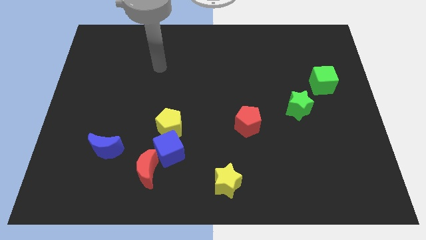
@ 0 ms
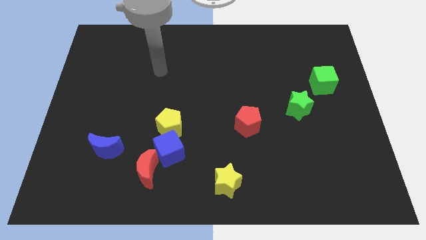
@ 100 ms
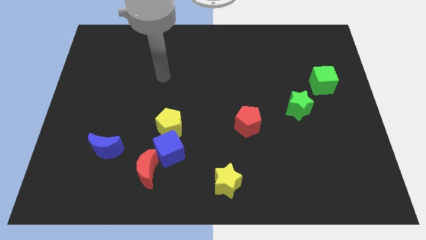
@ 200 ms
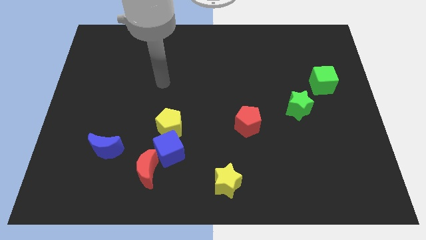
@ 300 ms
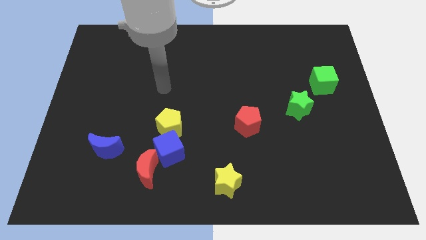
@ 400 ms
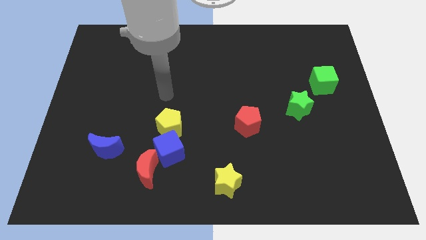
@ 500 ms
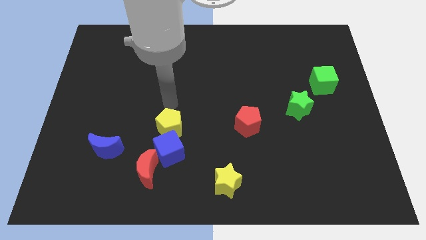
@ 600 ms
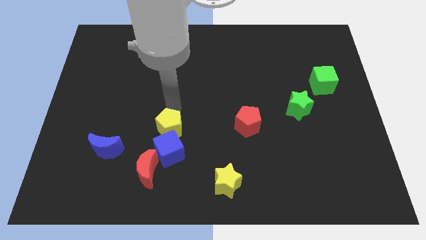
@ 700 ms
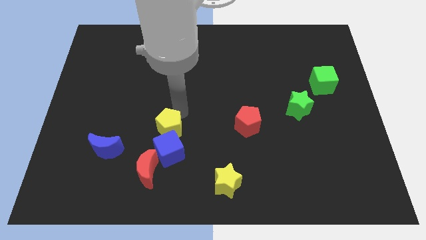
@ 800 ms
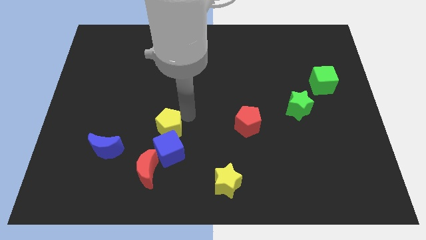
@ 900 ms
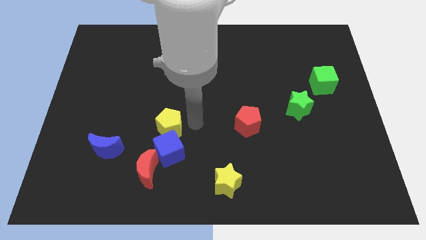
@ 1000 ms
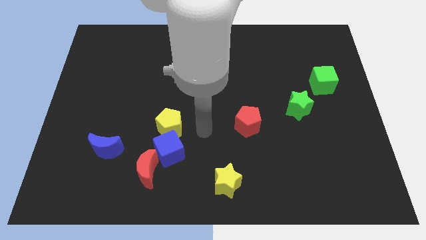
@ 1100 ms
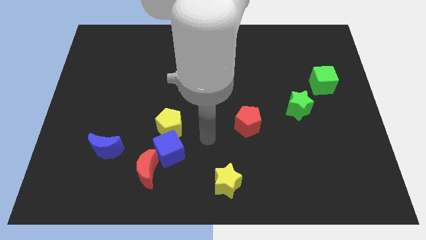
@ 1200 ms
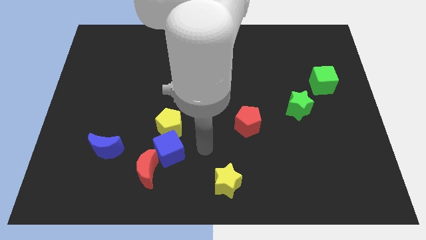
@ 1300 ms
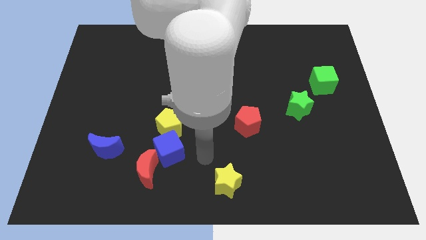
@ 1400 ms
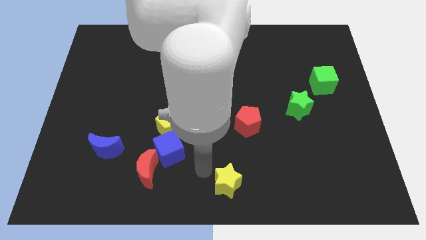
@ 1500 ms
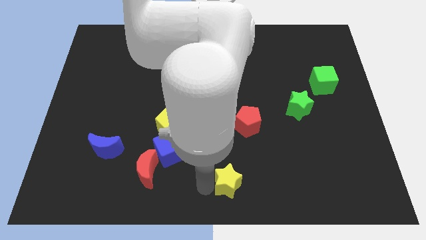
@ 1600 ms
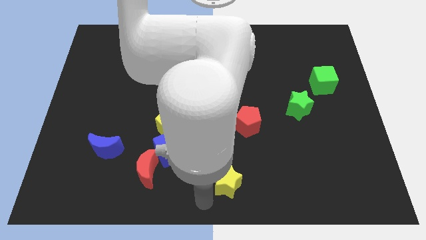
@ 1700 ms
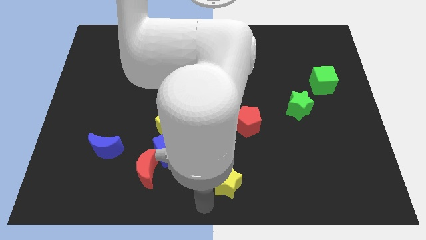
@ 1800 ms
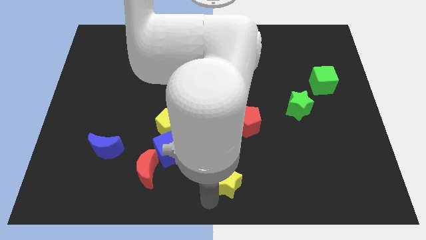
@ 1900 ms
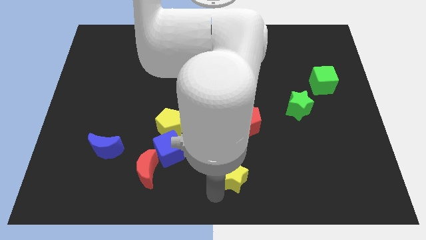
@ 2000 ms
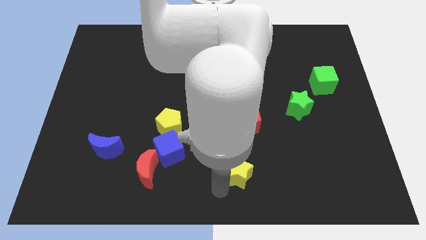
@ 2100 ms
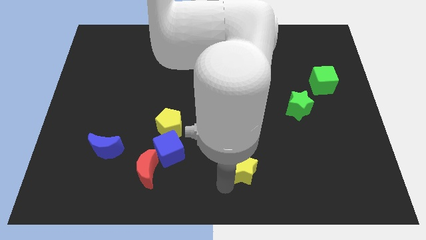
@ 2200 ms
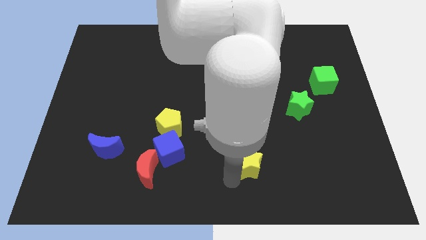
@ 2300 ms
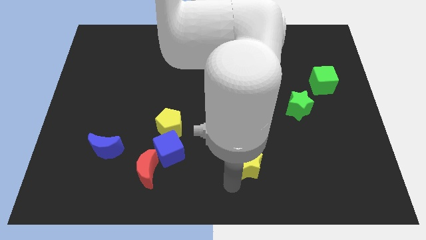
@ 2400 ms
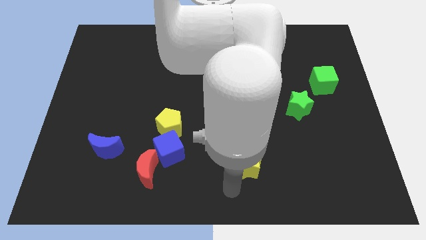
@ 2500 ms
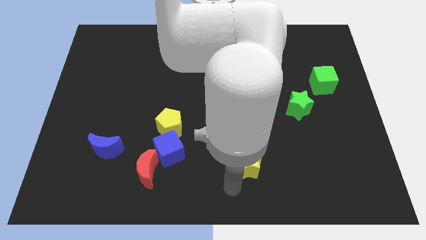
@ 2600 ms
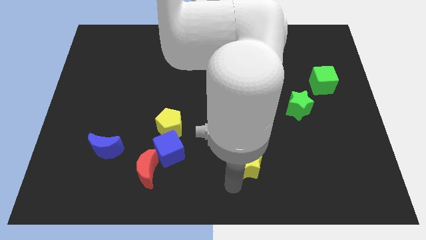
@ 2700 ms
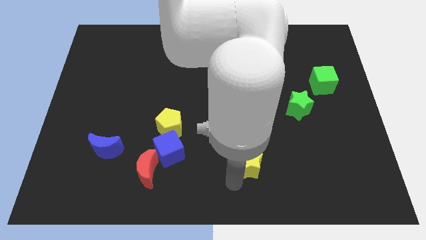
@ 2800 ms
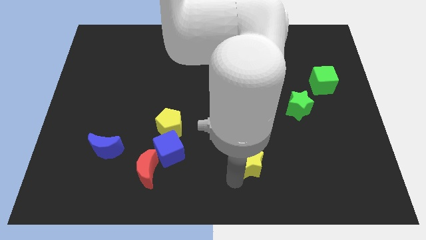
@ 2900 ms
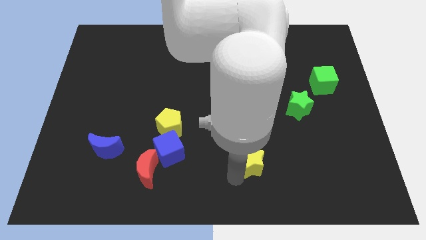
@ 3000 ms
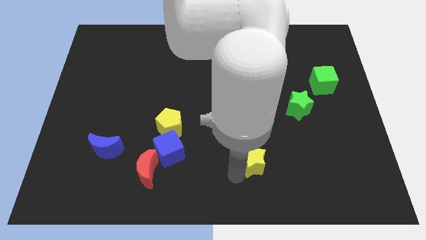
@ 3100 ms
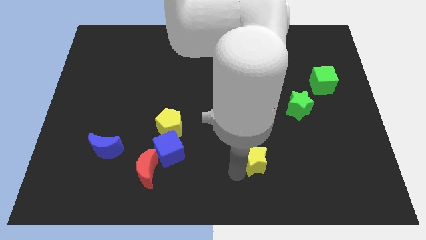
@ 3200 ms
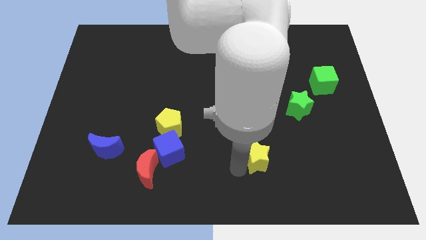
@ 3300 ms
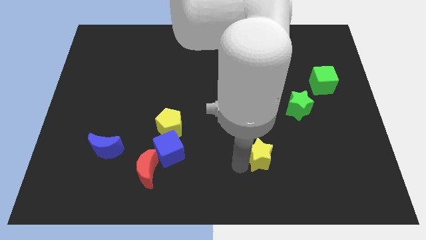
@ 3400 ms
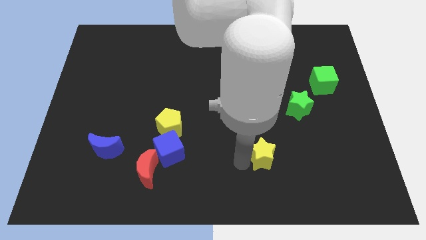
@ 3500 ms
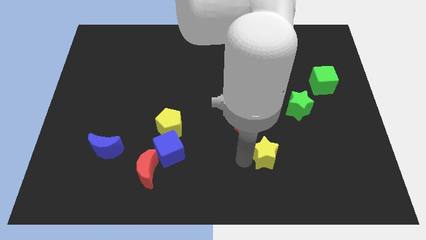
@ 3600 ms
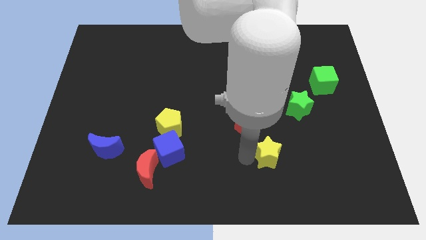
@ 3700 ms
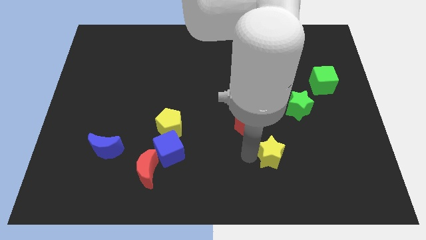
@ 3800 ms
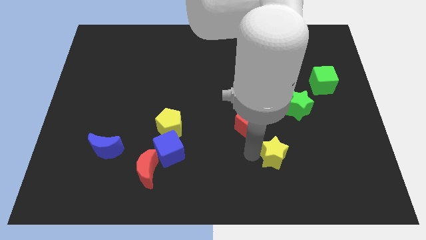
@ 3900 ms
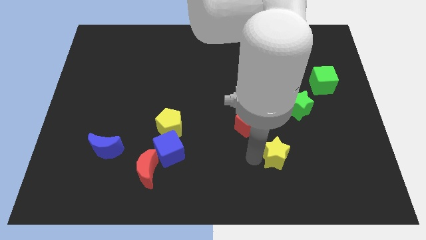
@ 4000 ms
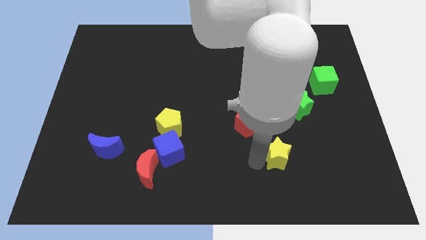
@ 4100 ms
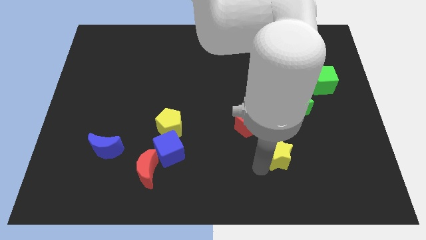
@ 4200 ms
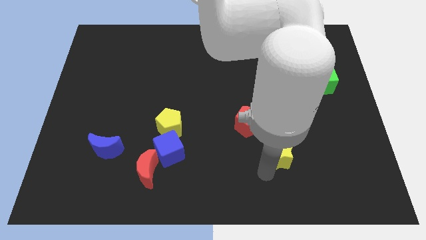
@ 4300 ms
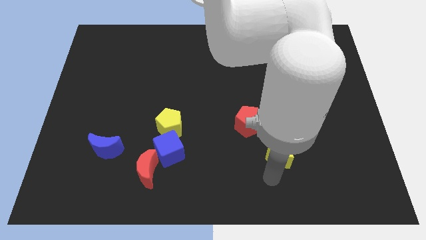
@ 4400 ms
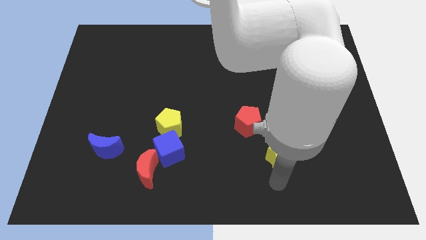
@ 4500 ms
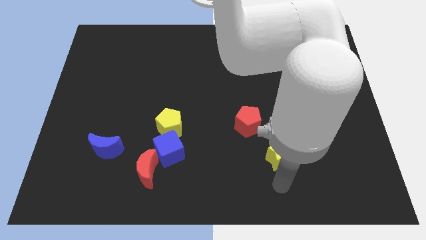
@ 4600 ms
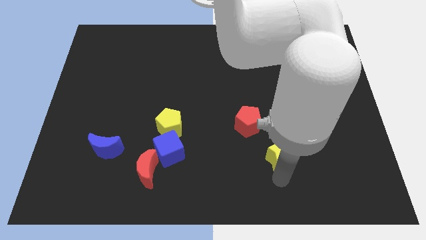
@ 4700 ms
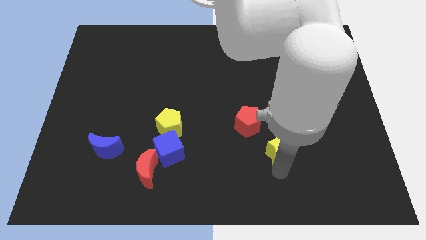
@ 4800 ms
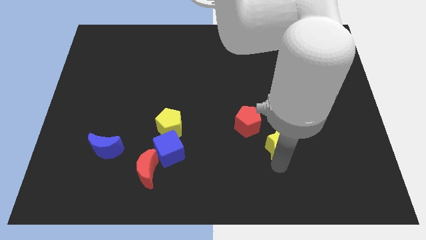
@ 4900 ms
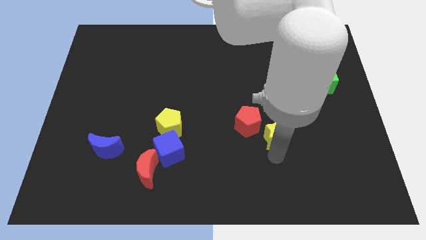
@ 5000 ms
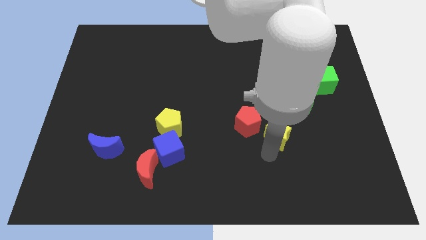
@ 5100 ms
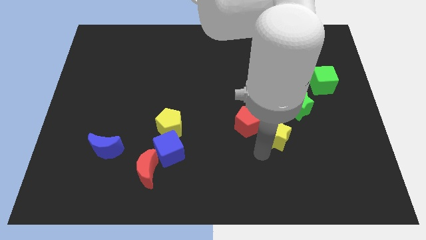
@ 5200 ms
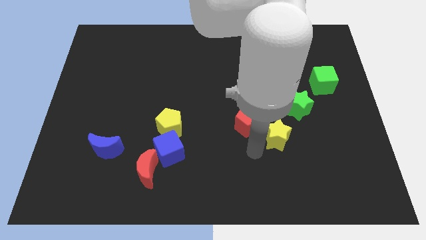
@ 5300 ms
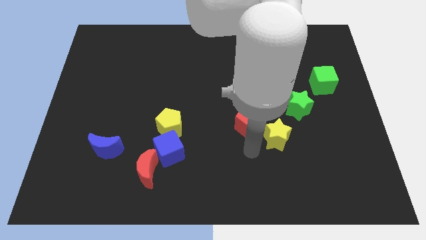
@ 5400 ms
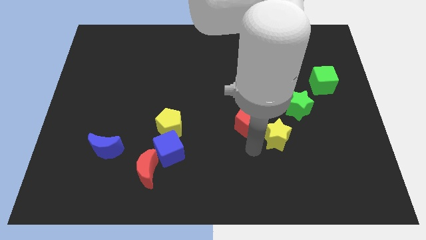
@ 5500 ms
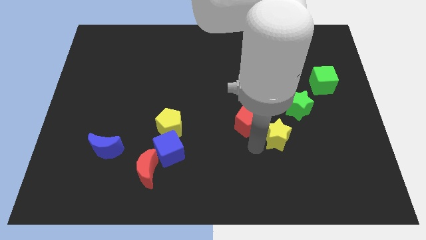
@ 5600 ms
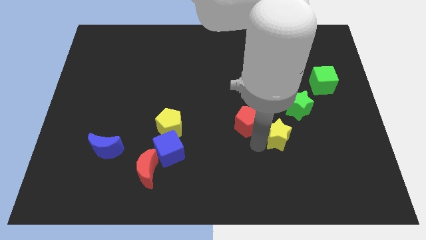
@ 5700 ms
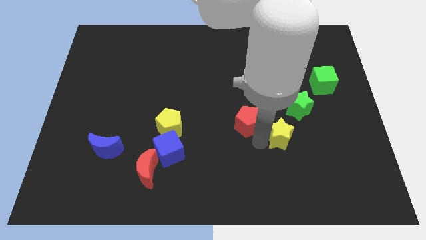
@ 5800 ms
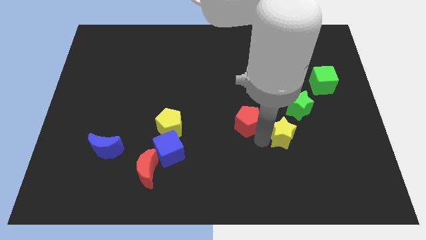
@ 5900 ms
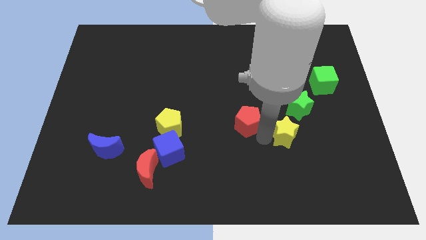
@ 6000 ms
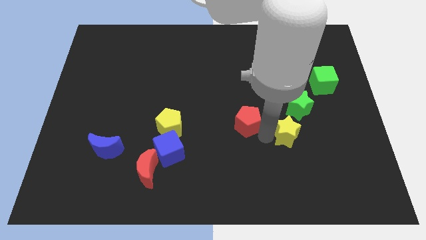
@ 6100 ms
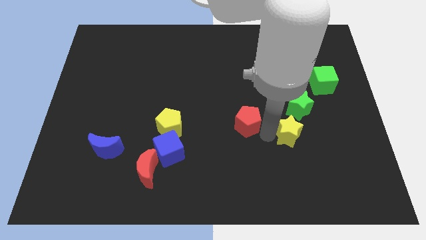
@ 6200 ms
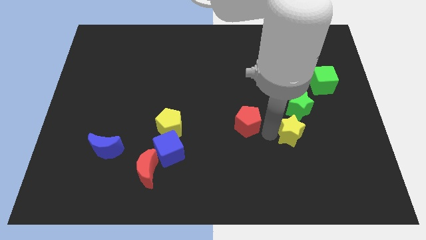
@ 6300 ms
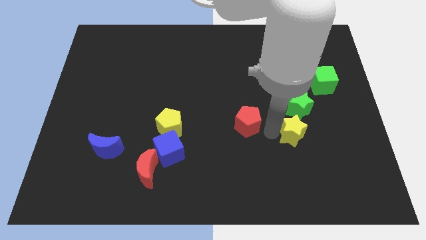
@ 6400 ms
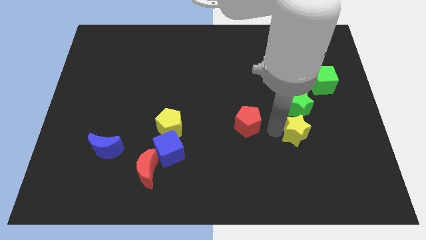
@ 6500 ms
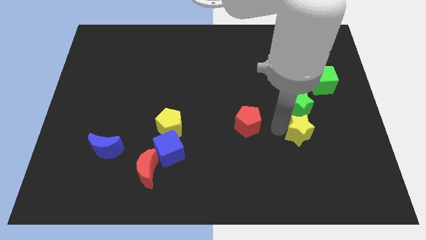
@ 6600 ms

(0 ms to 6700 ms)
push the yellow star upwards and then to the right

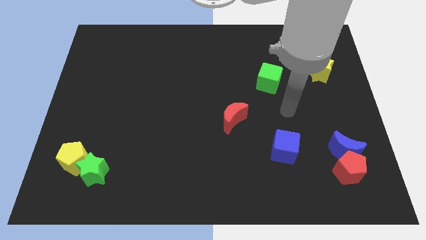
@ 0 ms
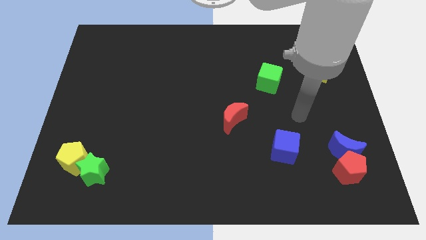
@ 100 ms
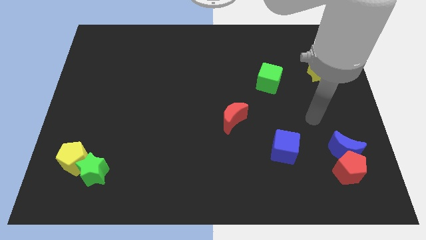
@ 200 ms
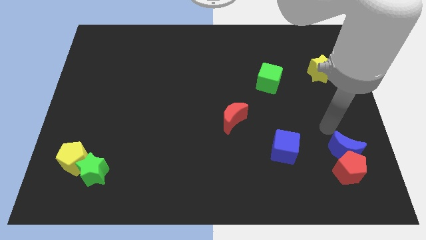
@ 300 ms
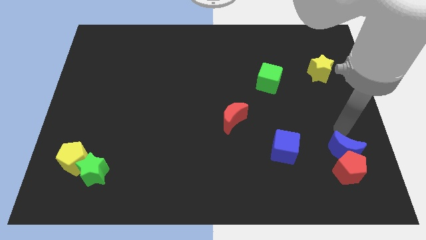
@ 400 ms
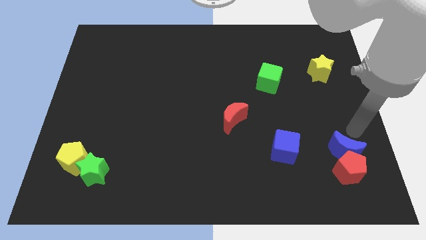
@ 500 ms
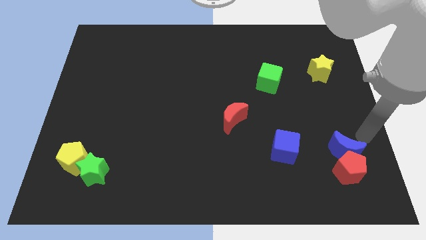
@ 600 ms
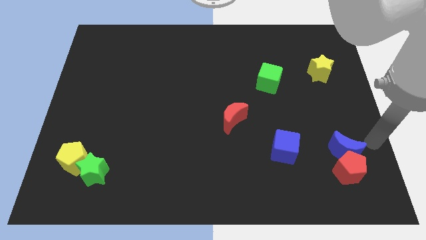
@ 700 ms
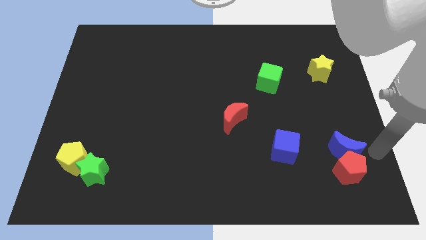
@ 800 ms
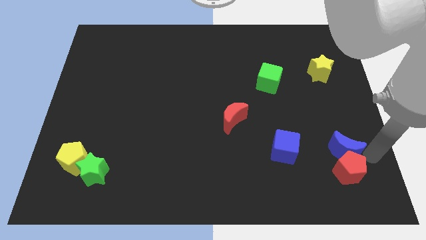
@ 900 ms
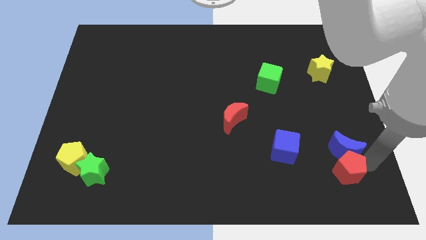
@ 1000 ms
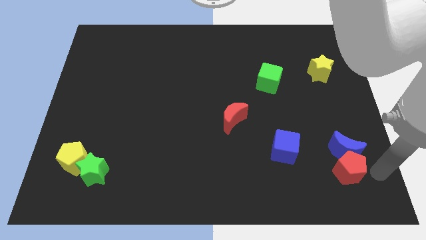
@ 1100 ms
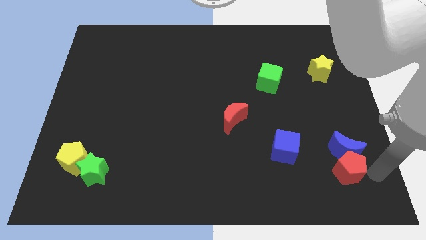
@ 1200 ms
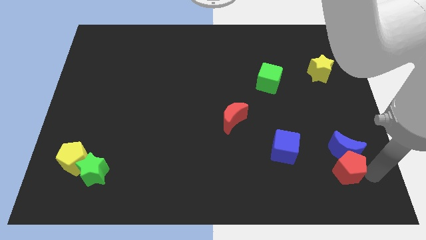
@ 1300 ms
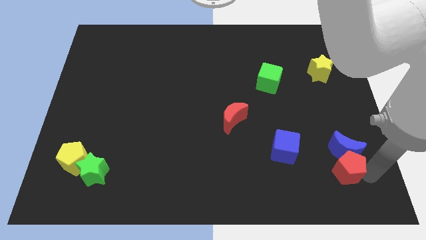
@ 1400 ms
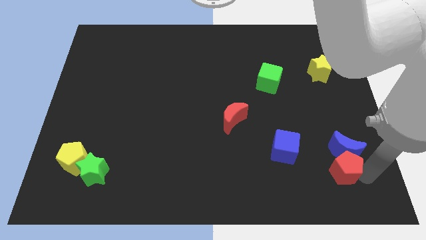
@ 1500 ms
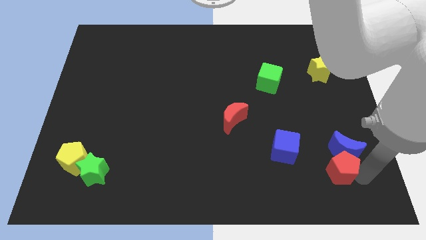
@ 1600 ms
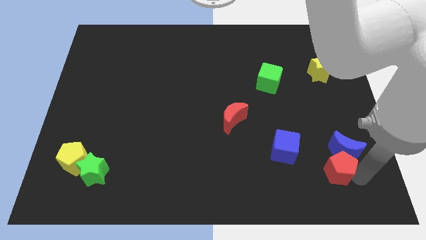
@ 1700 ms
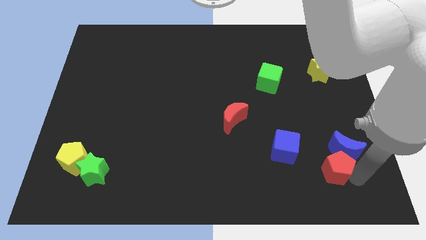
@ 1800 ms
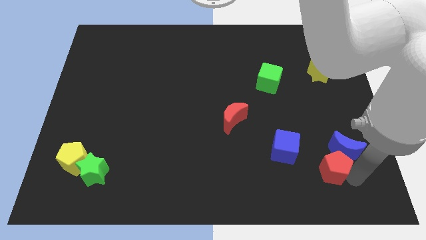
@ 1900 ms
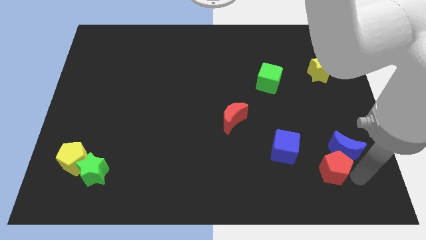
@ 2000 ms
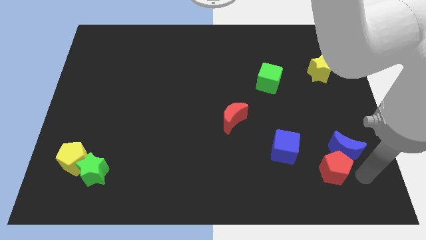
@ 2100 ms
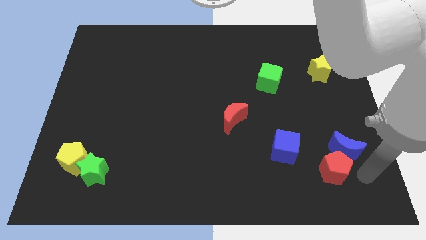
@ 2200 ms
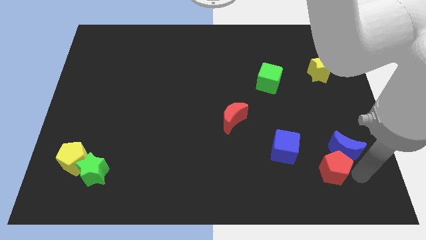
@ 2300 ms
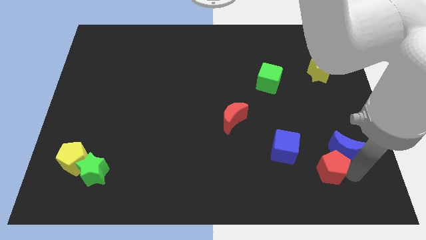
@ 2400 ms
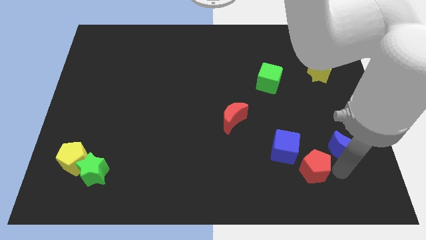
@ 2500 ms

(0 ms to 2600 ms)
slightly move the red pentagon to the left
